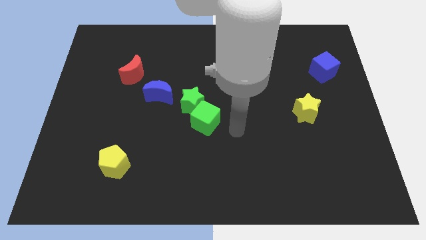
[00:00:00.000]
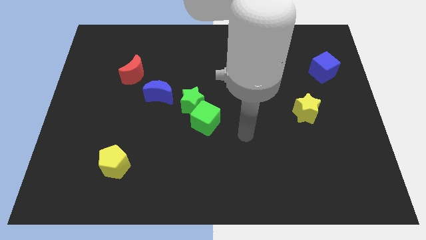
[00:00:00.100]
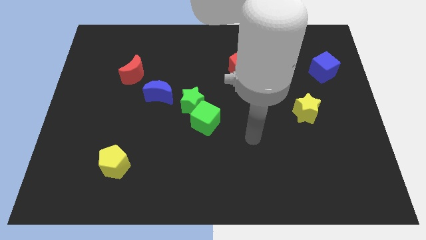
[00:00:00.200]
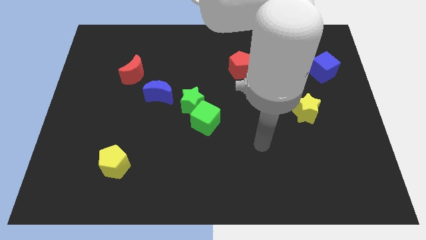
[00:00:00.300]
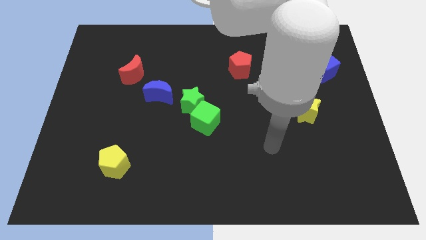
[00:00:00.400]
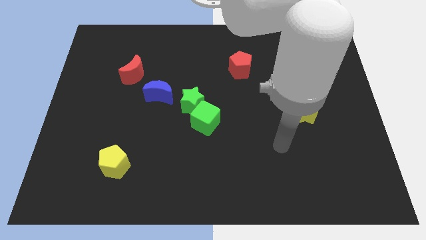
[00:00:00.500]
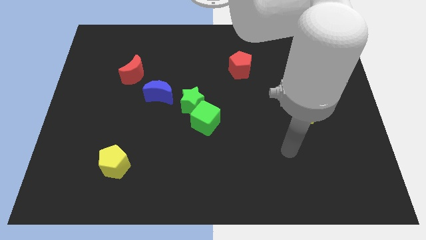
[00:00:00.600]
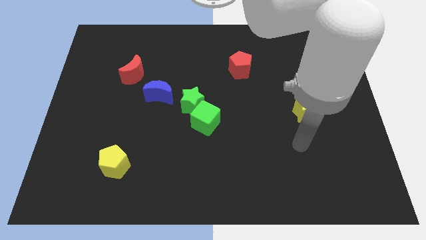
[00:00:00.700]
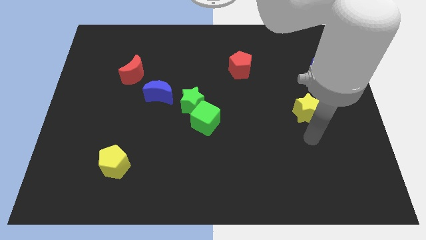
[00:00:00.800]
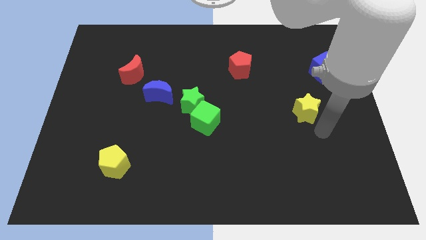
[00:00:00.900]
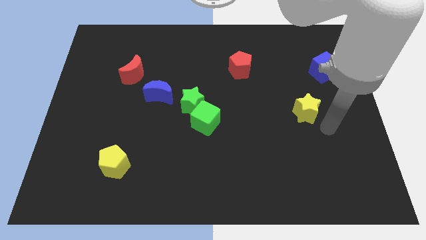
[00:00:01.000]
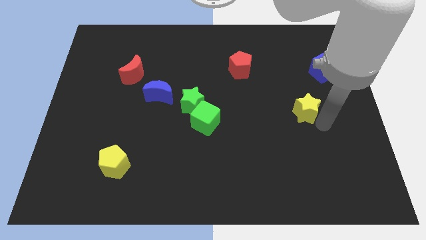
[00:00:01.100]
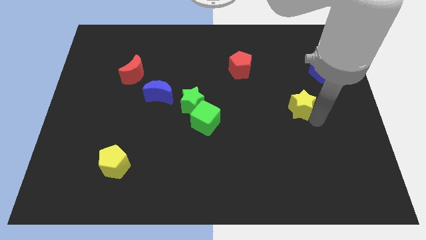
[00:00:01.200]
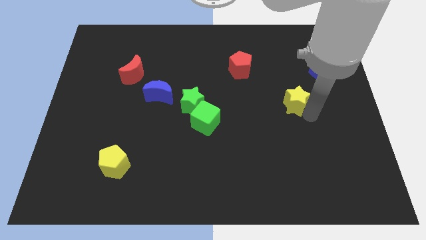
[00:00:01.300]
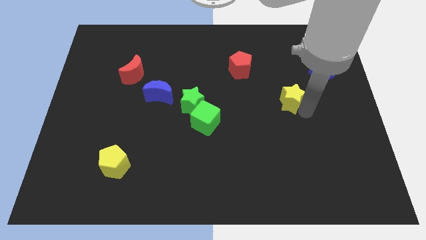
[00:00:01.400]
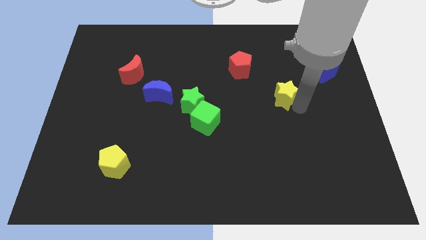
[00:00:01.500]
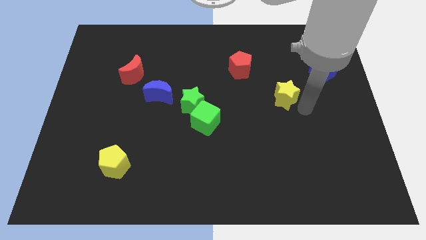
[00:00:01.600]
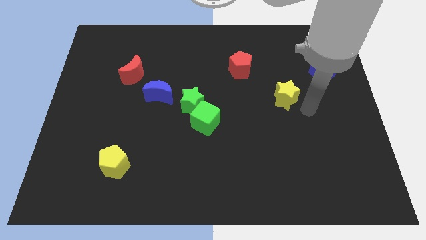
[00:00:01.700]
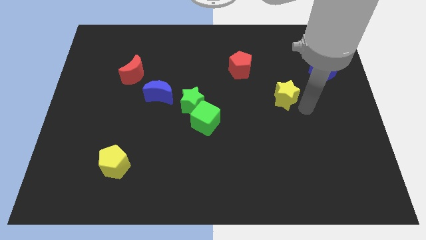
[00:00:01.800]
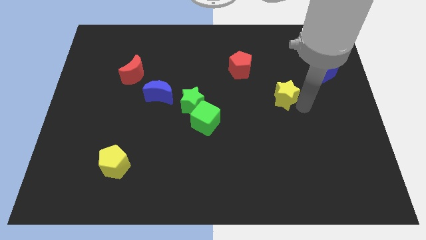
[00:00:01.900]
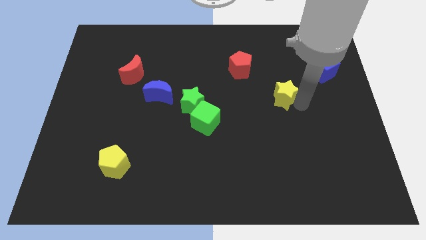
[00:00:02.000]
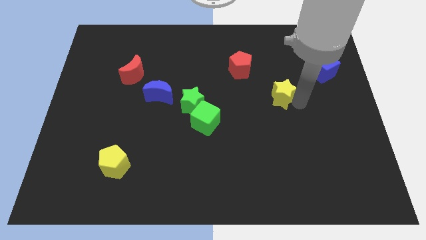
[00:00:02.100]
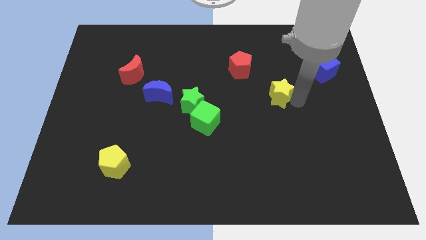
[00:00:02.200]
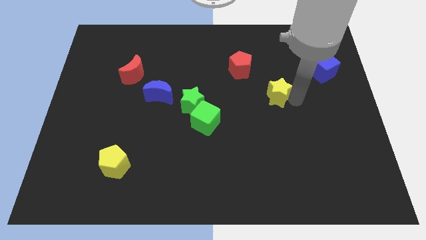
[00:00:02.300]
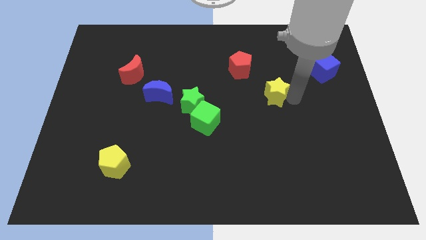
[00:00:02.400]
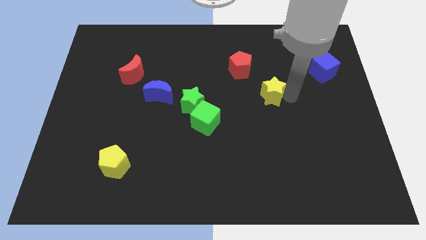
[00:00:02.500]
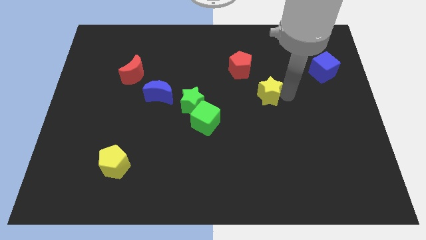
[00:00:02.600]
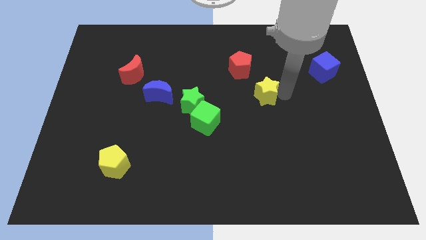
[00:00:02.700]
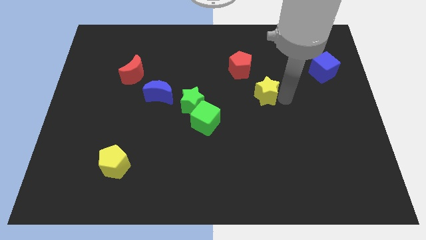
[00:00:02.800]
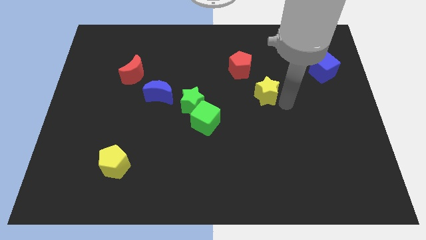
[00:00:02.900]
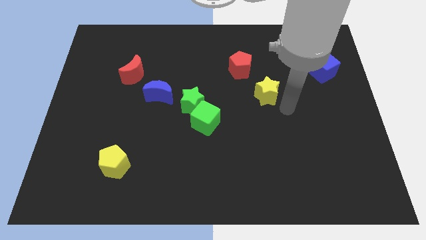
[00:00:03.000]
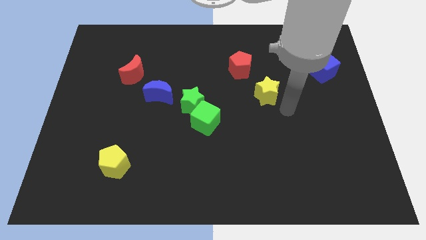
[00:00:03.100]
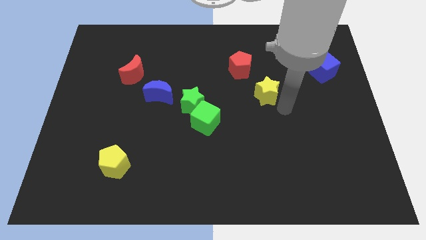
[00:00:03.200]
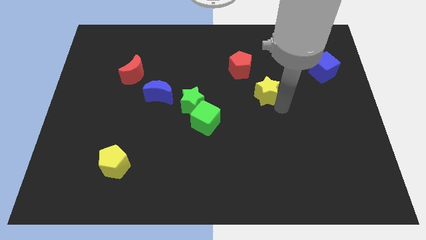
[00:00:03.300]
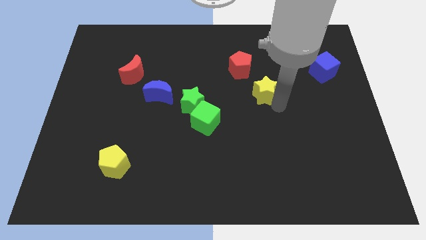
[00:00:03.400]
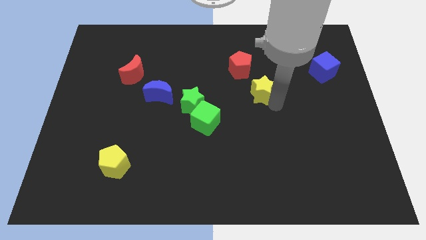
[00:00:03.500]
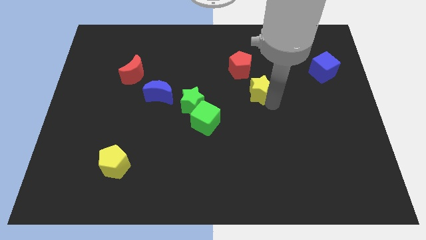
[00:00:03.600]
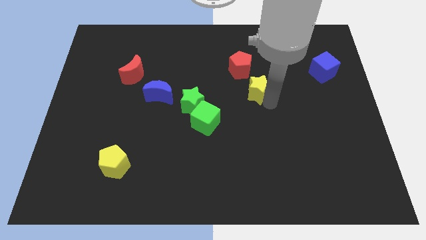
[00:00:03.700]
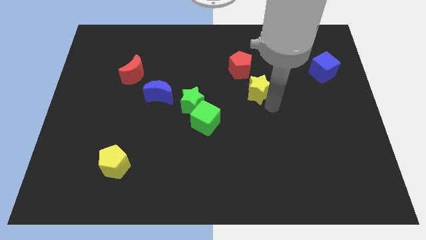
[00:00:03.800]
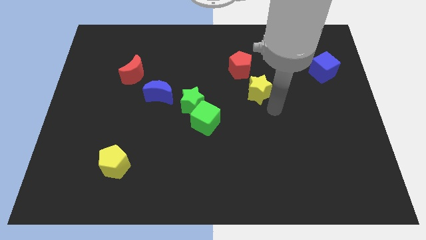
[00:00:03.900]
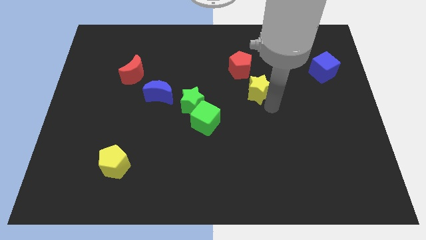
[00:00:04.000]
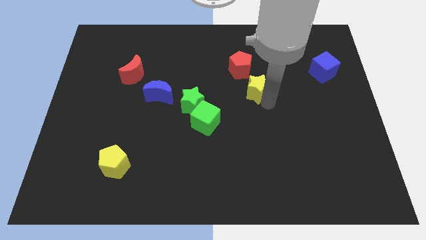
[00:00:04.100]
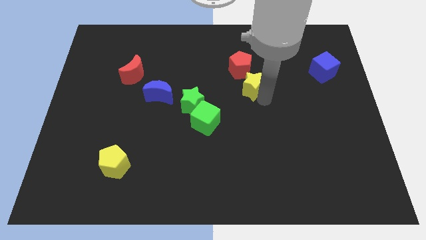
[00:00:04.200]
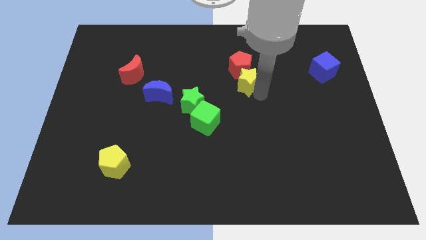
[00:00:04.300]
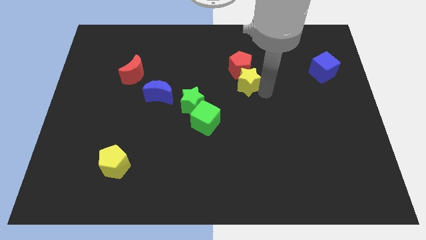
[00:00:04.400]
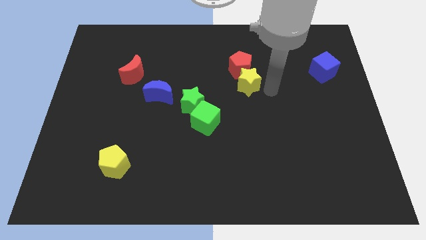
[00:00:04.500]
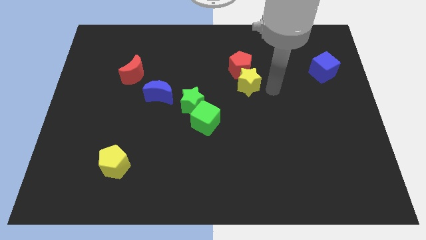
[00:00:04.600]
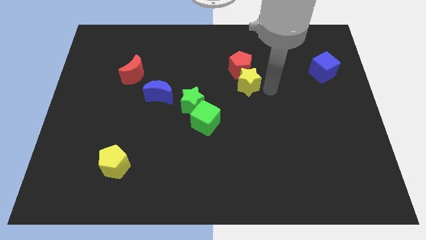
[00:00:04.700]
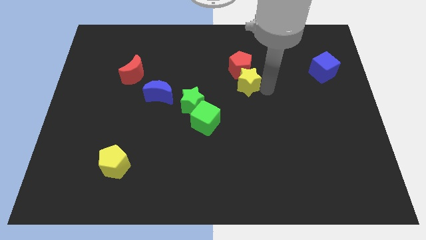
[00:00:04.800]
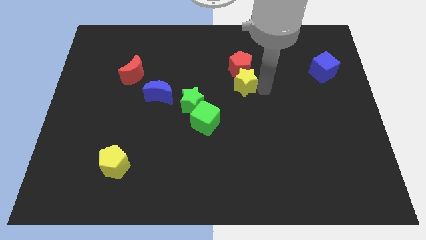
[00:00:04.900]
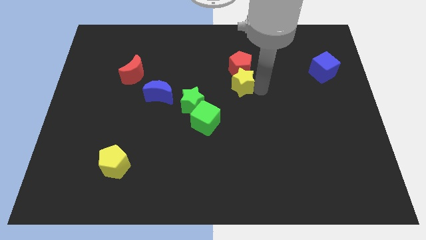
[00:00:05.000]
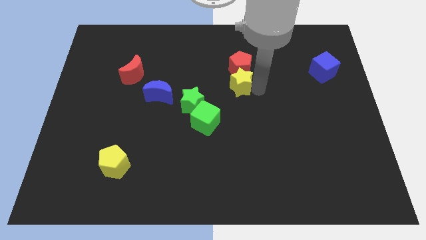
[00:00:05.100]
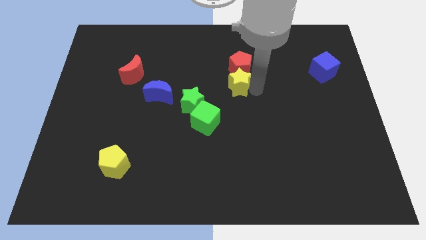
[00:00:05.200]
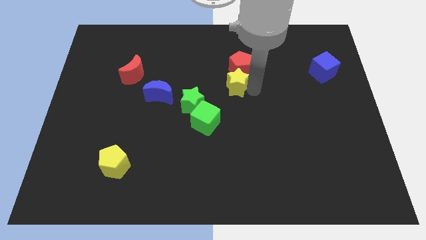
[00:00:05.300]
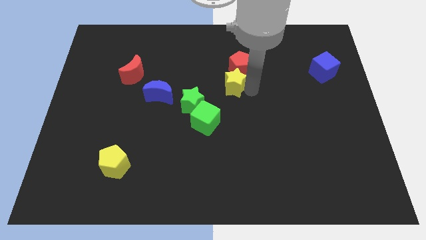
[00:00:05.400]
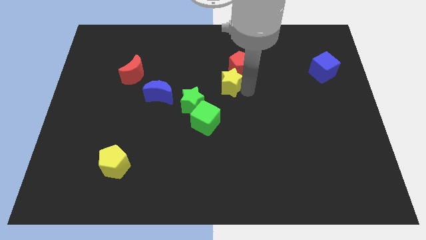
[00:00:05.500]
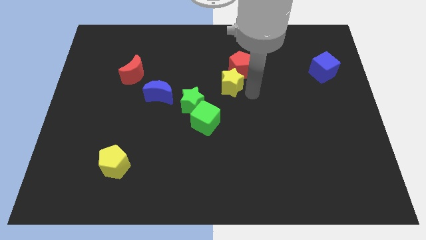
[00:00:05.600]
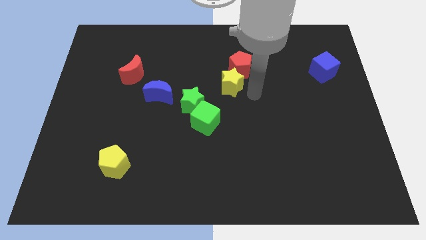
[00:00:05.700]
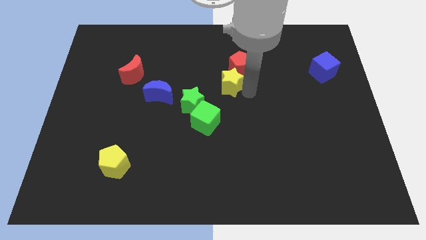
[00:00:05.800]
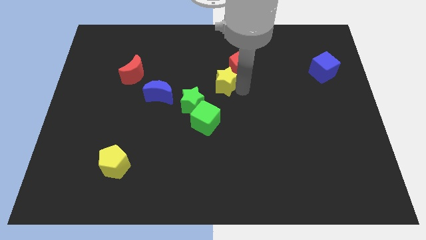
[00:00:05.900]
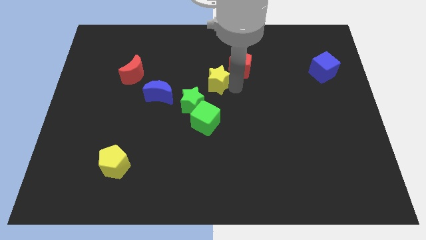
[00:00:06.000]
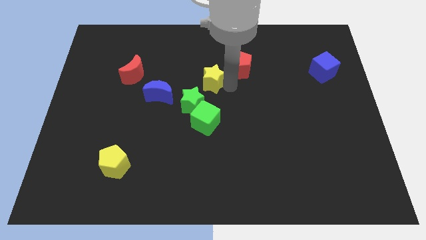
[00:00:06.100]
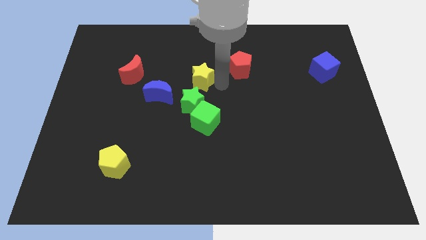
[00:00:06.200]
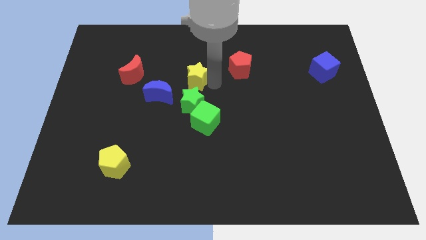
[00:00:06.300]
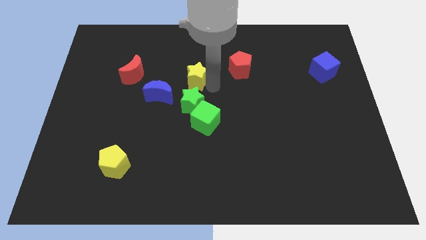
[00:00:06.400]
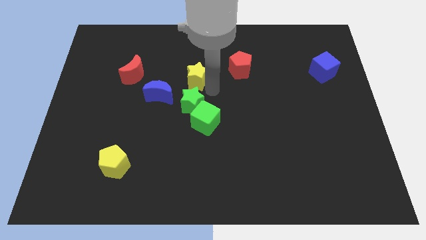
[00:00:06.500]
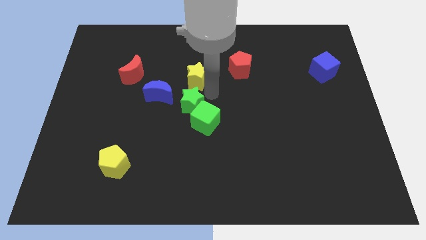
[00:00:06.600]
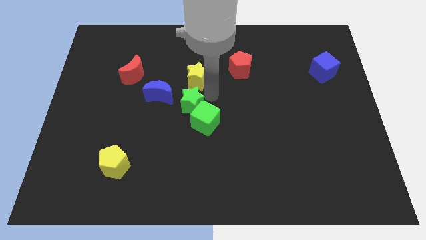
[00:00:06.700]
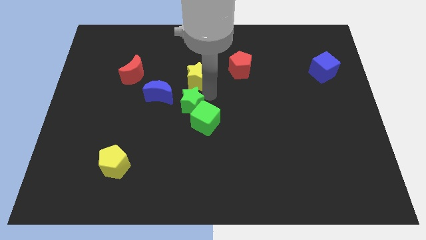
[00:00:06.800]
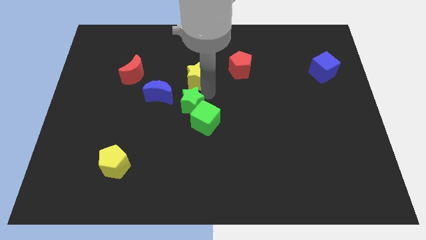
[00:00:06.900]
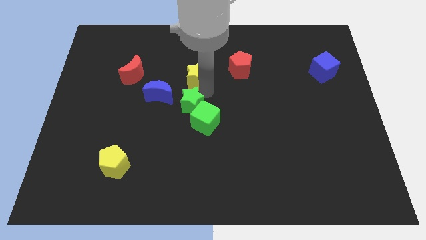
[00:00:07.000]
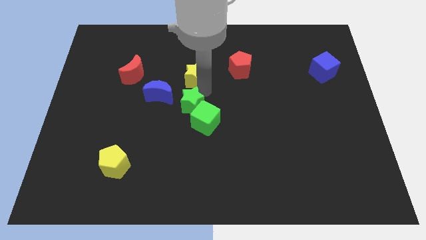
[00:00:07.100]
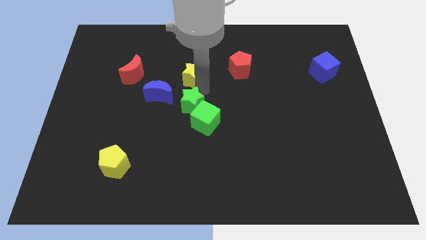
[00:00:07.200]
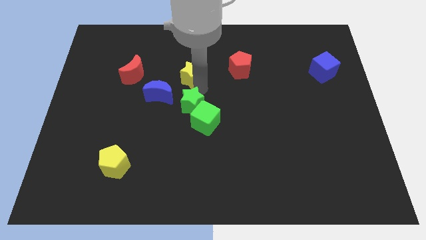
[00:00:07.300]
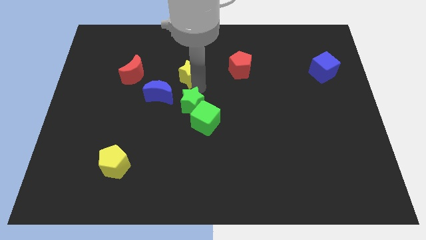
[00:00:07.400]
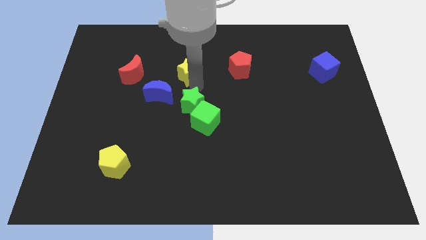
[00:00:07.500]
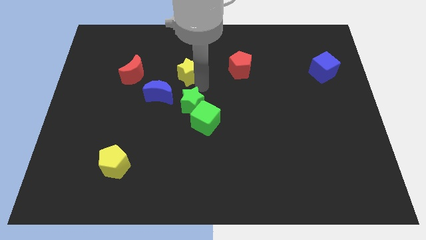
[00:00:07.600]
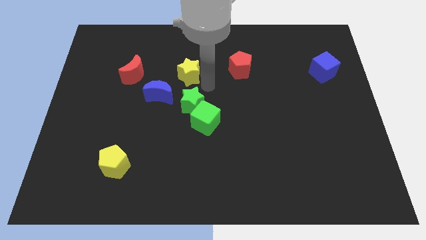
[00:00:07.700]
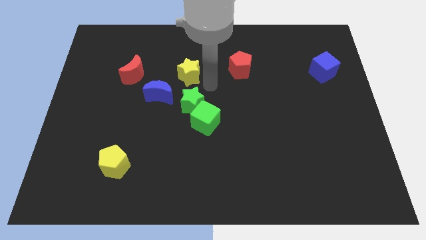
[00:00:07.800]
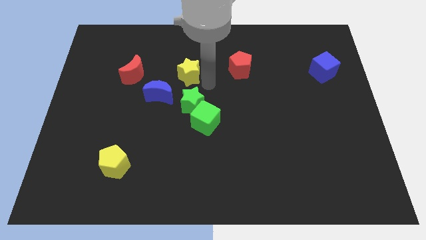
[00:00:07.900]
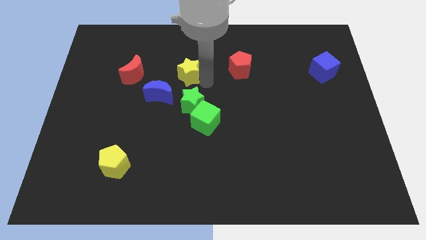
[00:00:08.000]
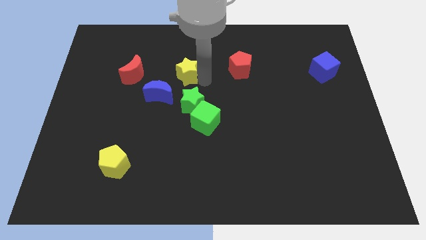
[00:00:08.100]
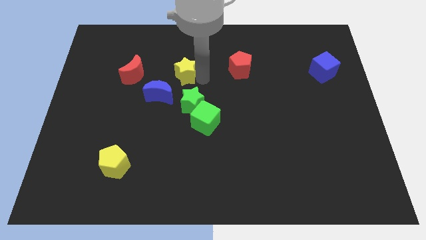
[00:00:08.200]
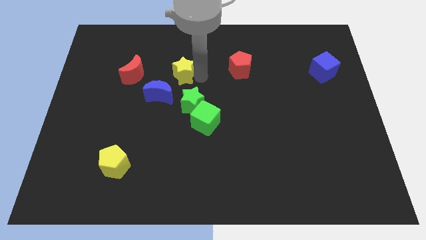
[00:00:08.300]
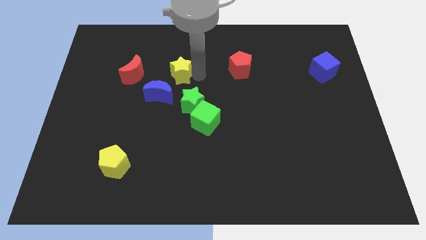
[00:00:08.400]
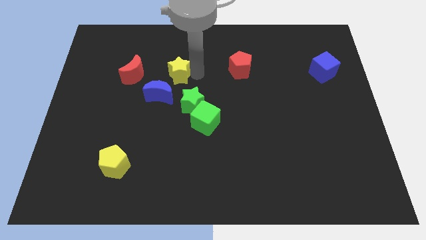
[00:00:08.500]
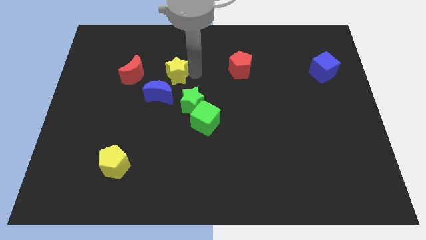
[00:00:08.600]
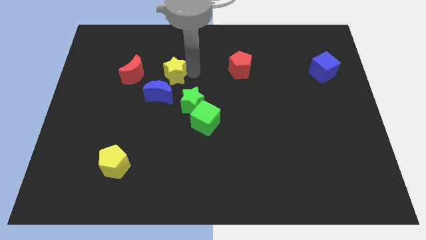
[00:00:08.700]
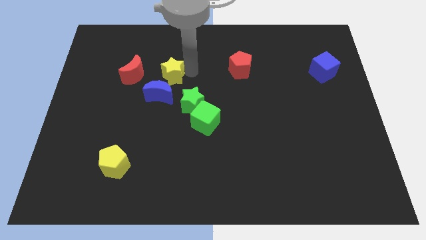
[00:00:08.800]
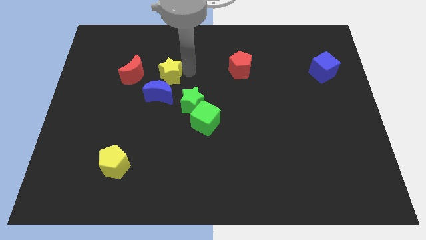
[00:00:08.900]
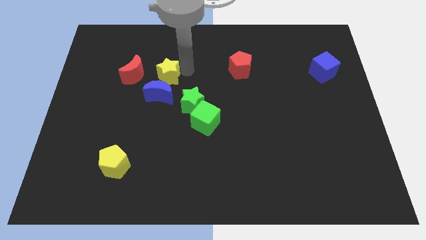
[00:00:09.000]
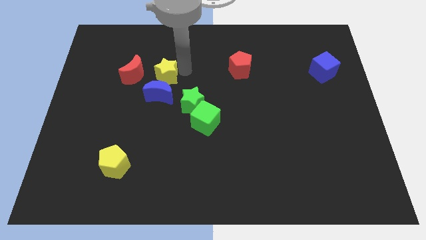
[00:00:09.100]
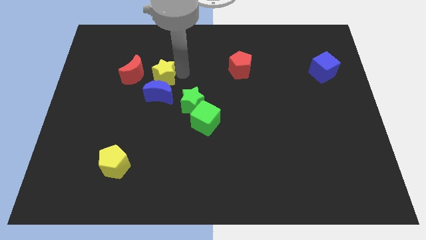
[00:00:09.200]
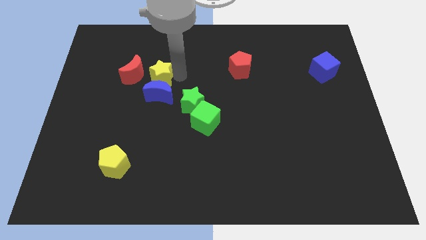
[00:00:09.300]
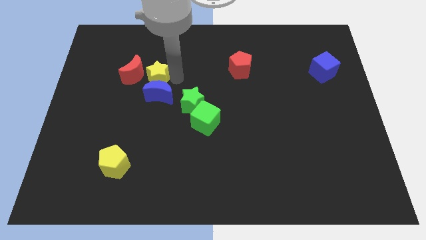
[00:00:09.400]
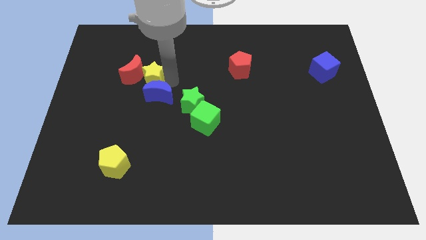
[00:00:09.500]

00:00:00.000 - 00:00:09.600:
push the yellow star to the top right of the red moon
